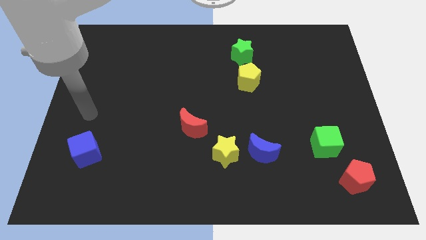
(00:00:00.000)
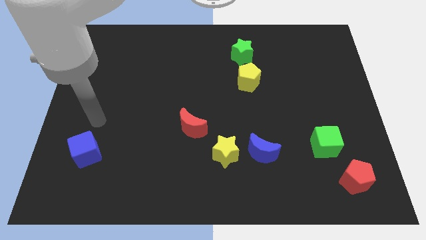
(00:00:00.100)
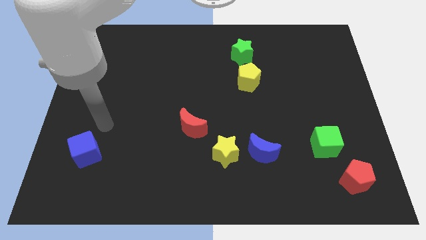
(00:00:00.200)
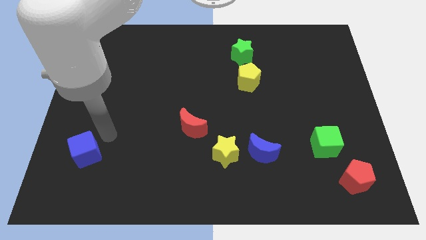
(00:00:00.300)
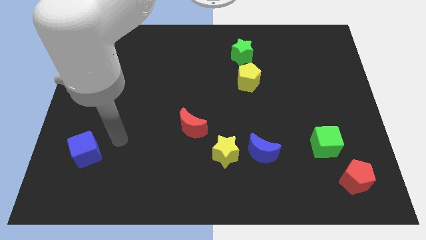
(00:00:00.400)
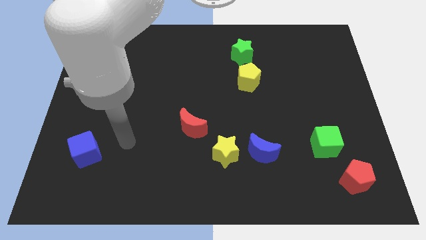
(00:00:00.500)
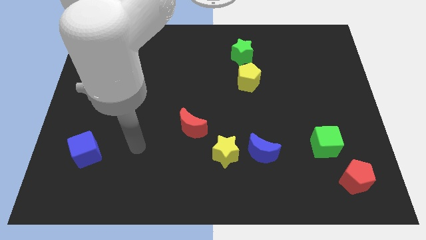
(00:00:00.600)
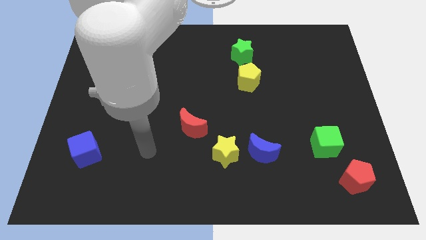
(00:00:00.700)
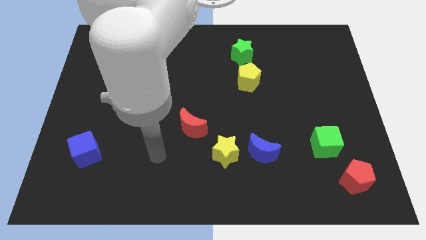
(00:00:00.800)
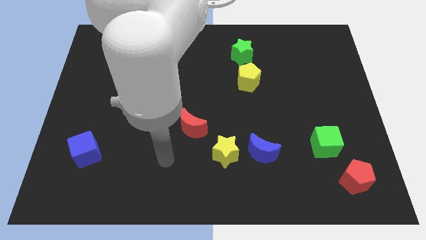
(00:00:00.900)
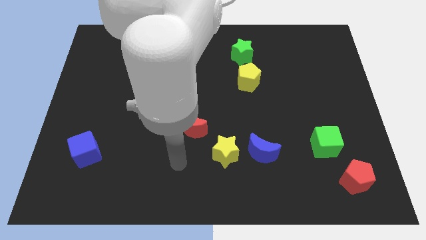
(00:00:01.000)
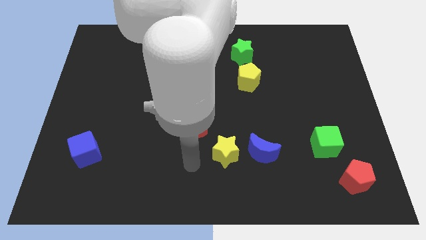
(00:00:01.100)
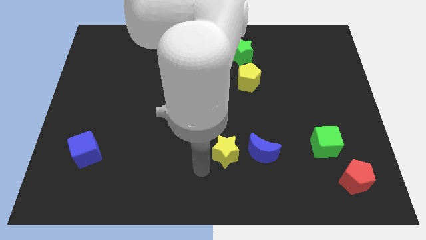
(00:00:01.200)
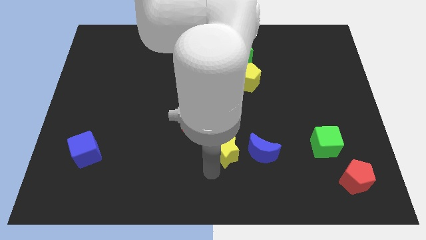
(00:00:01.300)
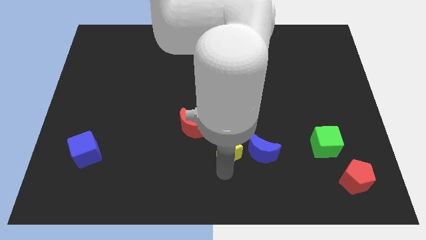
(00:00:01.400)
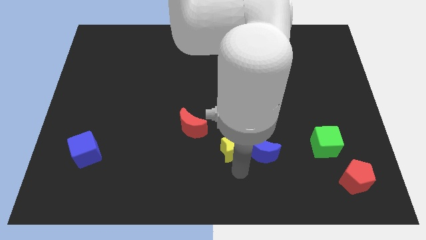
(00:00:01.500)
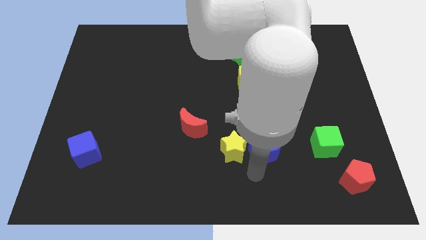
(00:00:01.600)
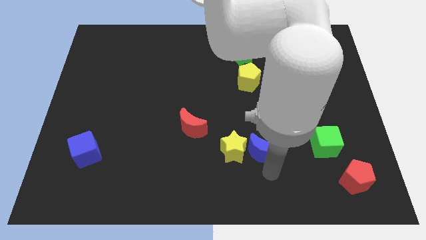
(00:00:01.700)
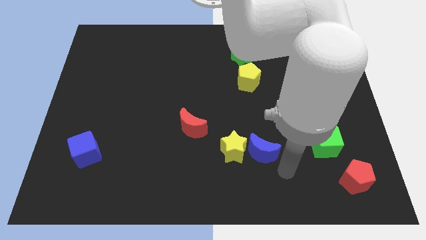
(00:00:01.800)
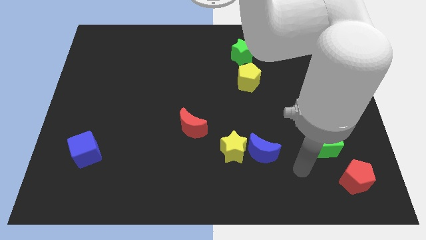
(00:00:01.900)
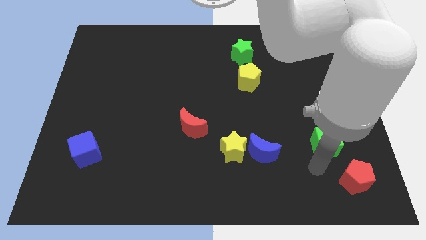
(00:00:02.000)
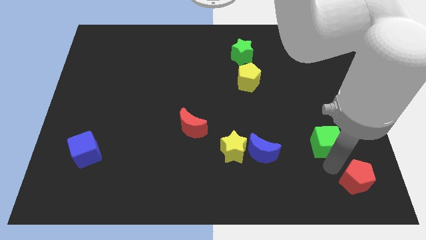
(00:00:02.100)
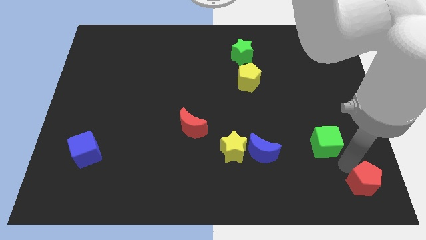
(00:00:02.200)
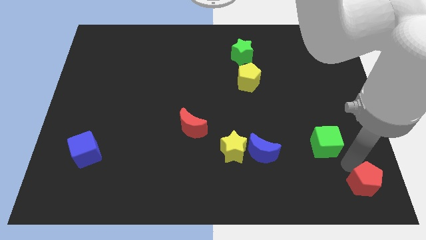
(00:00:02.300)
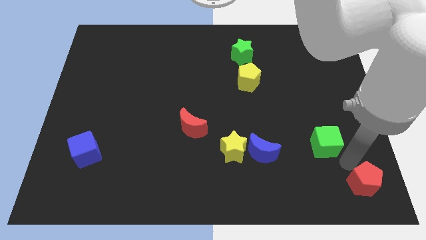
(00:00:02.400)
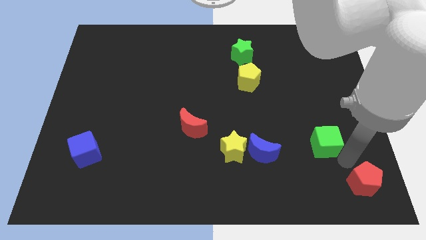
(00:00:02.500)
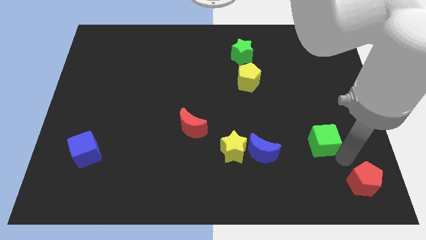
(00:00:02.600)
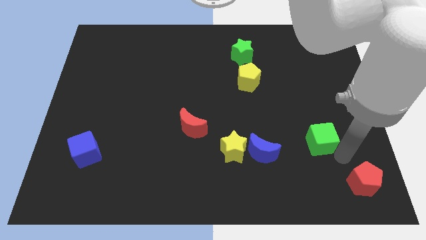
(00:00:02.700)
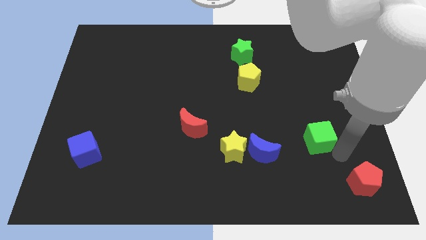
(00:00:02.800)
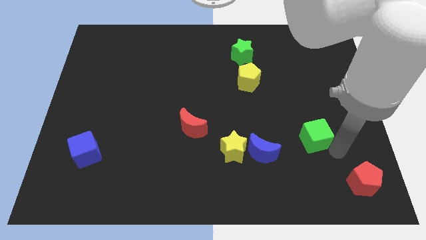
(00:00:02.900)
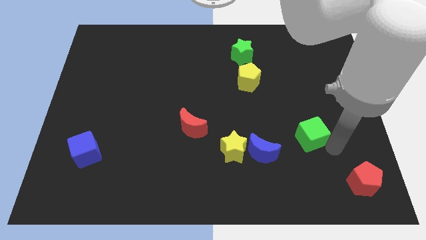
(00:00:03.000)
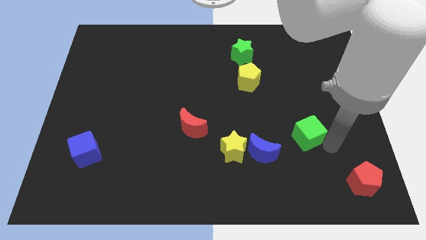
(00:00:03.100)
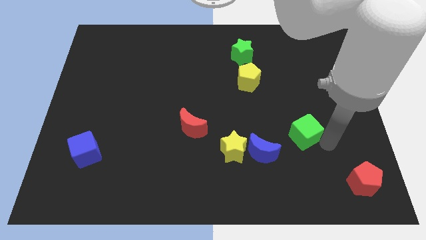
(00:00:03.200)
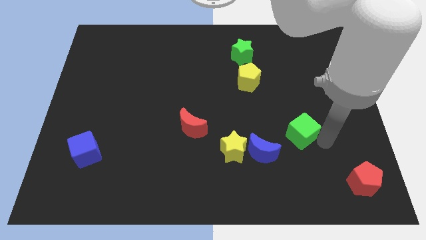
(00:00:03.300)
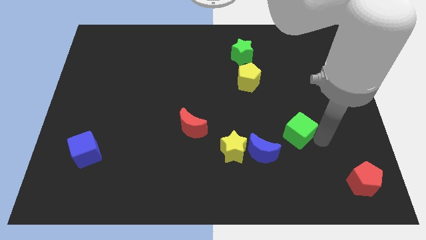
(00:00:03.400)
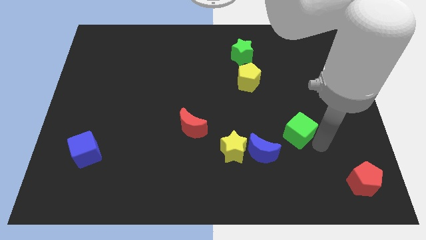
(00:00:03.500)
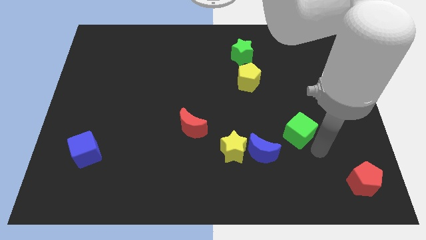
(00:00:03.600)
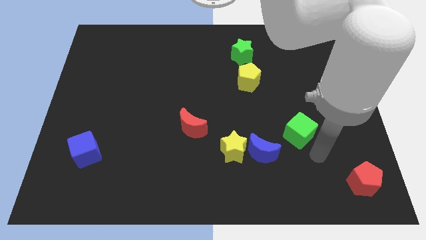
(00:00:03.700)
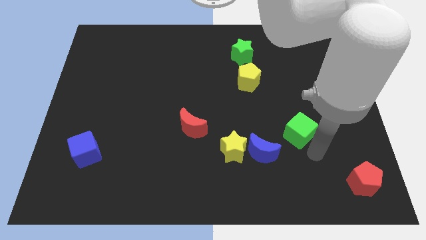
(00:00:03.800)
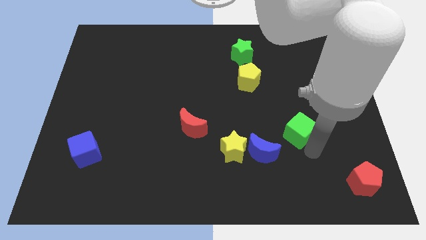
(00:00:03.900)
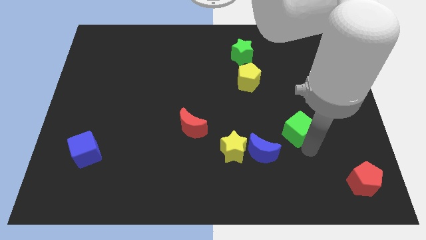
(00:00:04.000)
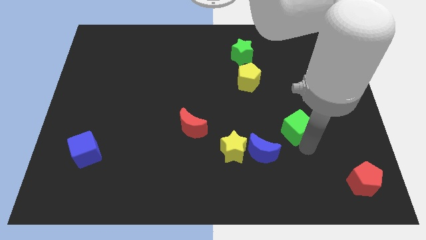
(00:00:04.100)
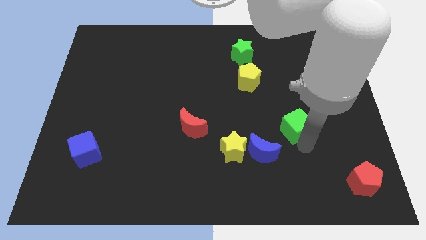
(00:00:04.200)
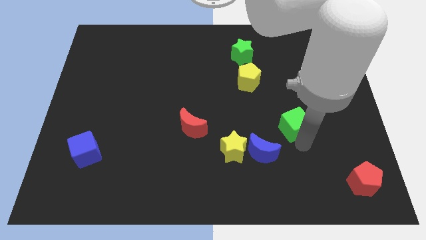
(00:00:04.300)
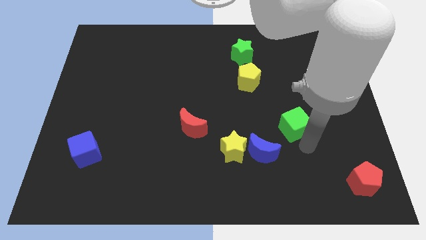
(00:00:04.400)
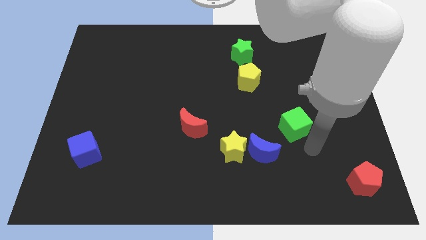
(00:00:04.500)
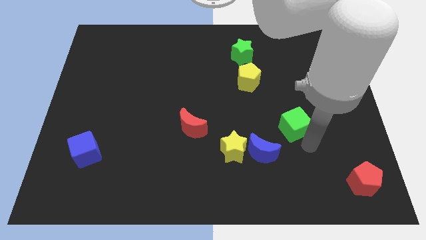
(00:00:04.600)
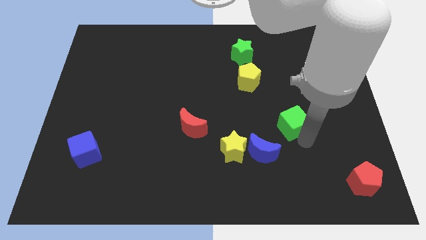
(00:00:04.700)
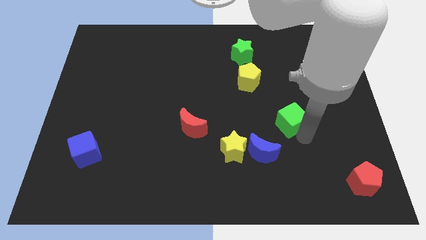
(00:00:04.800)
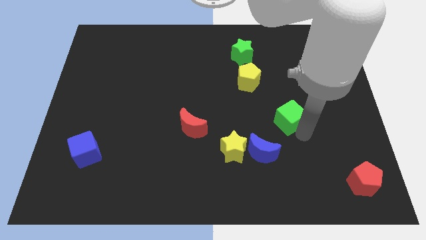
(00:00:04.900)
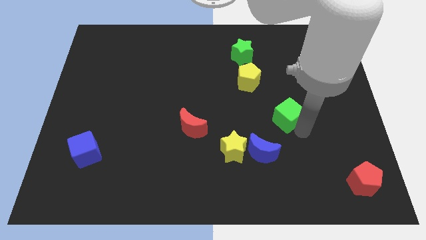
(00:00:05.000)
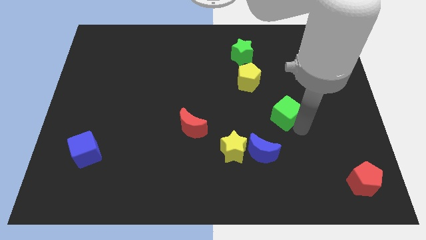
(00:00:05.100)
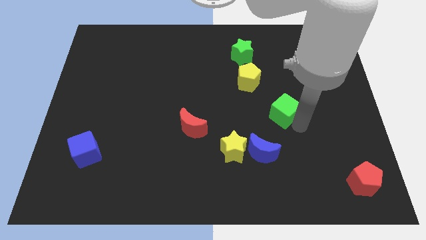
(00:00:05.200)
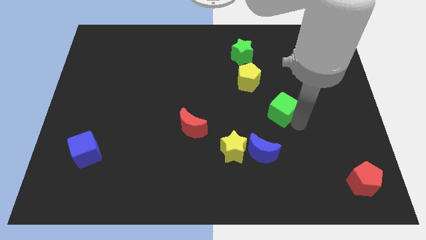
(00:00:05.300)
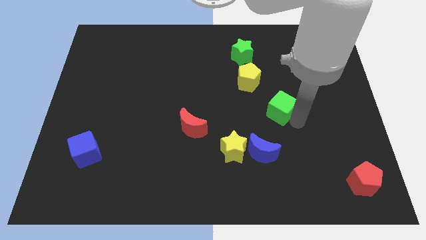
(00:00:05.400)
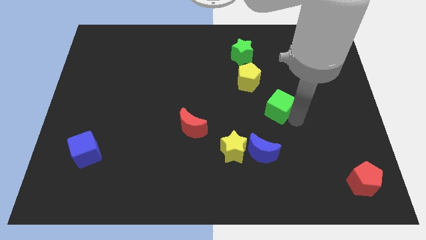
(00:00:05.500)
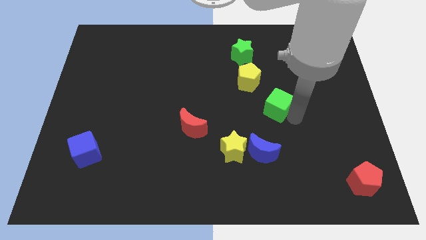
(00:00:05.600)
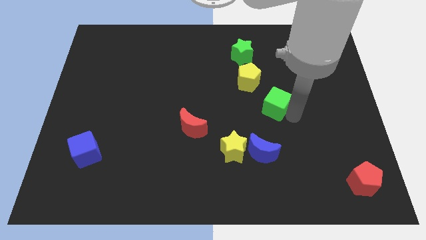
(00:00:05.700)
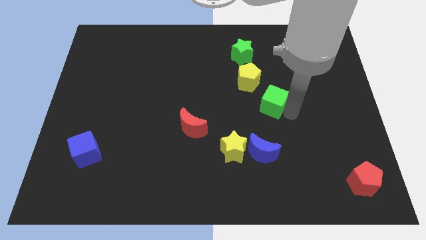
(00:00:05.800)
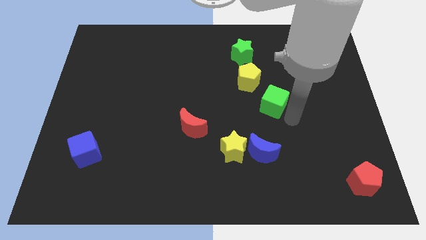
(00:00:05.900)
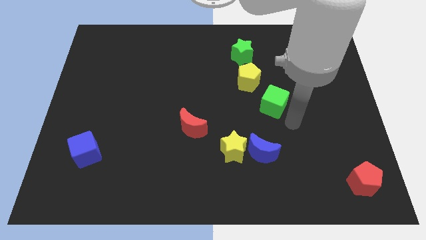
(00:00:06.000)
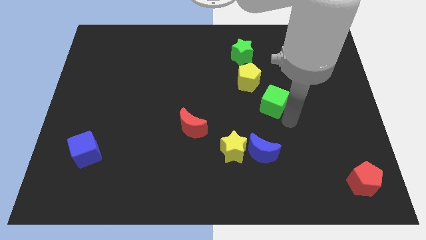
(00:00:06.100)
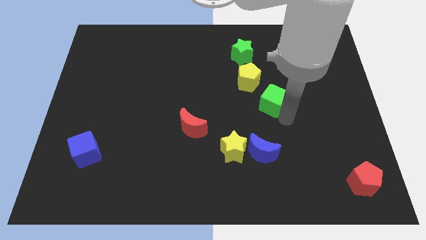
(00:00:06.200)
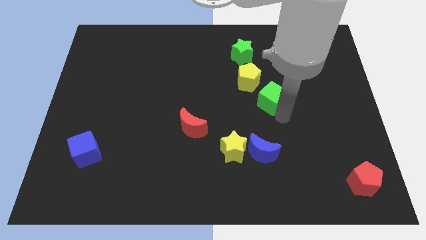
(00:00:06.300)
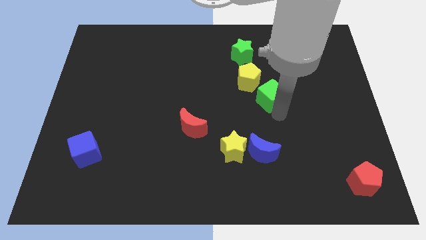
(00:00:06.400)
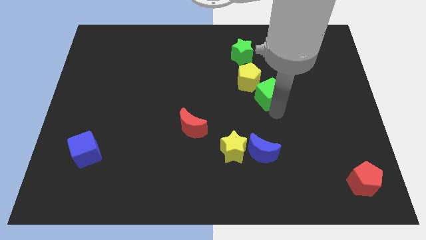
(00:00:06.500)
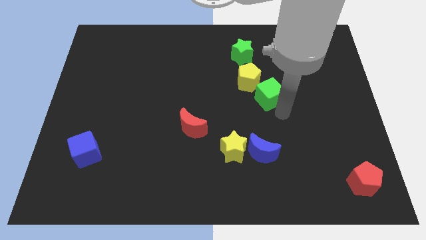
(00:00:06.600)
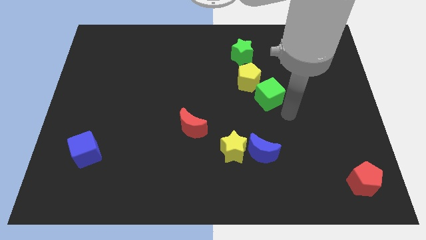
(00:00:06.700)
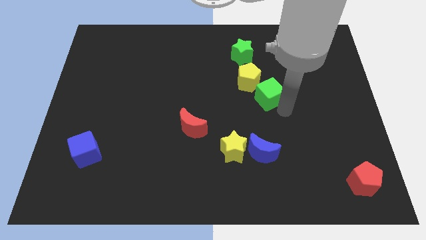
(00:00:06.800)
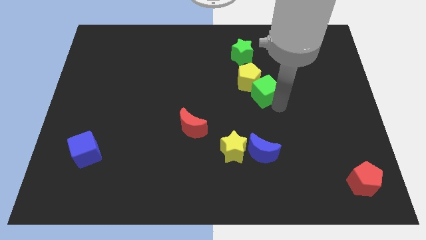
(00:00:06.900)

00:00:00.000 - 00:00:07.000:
move the green cube to the yellow pentagon
